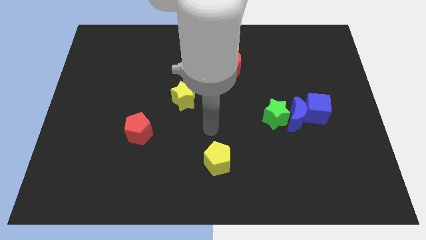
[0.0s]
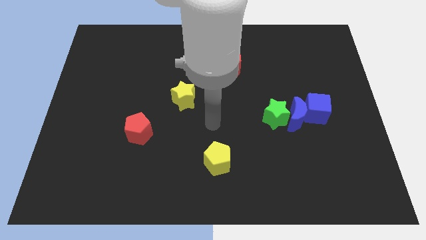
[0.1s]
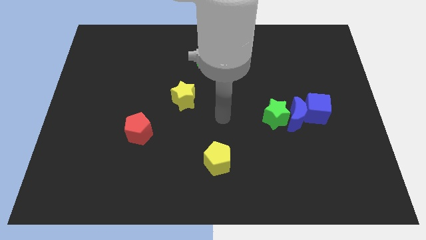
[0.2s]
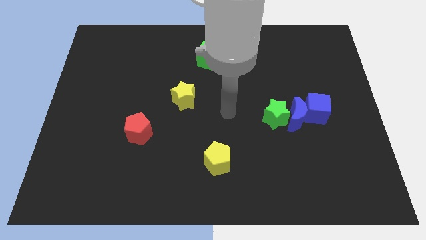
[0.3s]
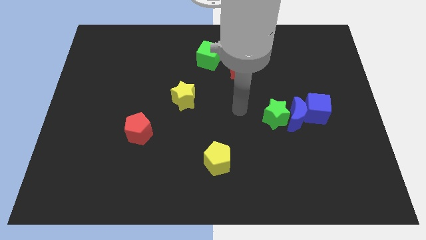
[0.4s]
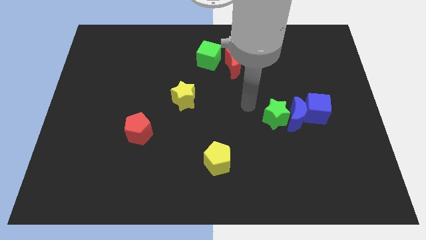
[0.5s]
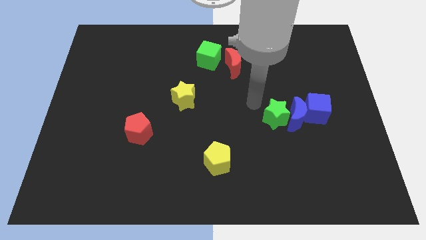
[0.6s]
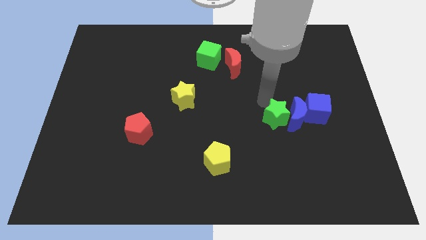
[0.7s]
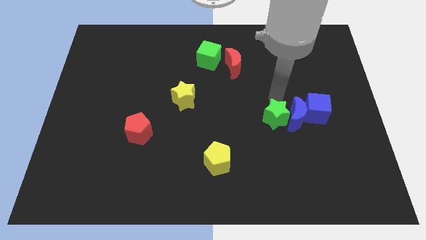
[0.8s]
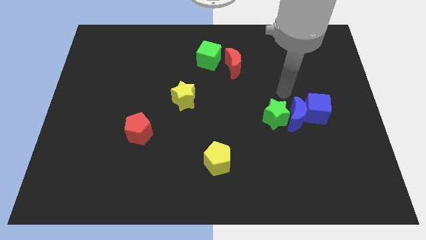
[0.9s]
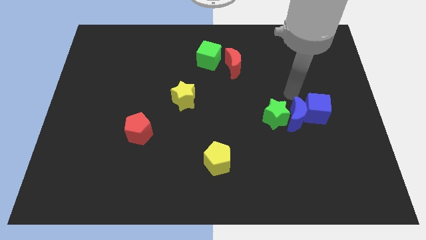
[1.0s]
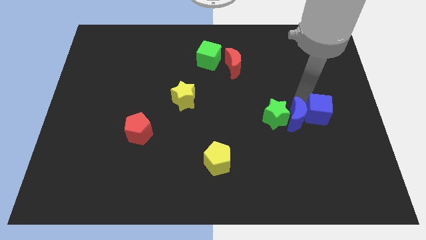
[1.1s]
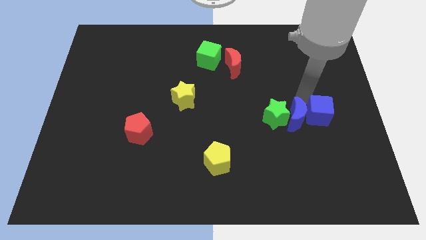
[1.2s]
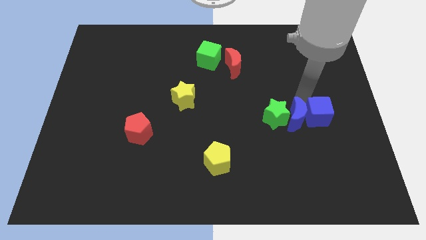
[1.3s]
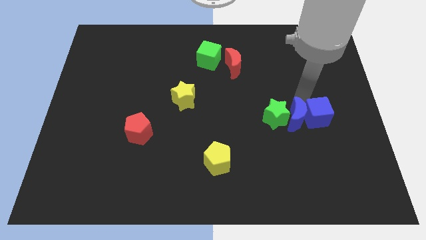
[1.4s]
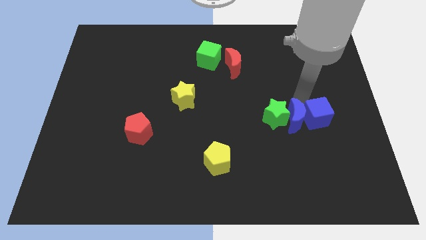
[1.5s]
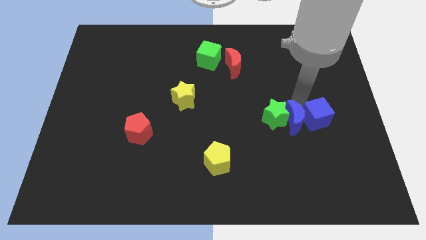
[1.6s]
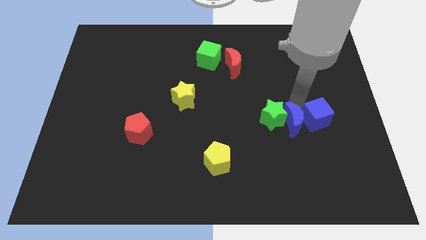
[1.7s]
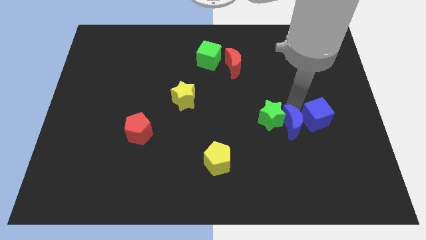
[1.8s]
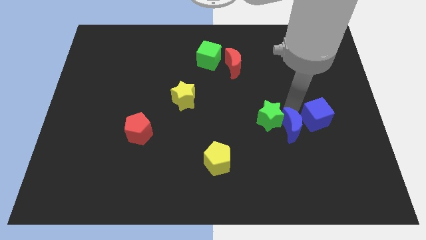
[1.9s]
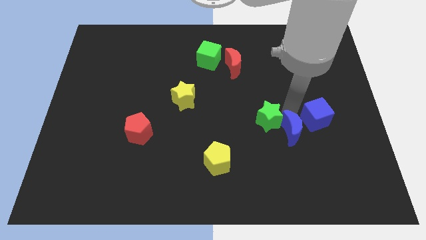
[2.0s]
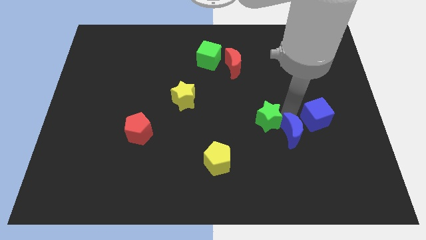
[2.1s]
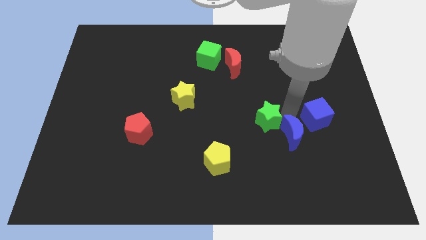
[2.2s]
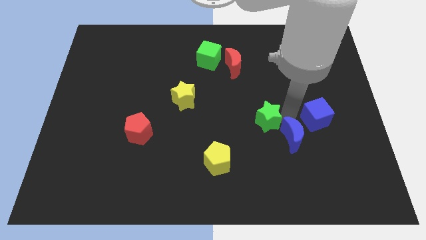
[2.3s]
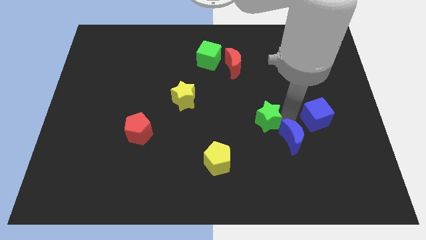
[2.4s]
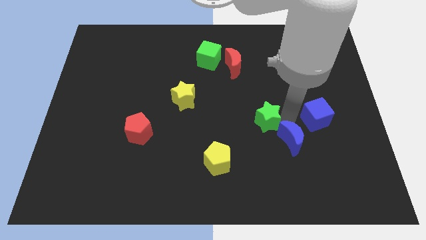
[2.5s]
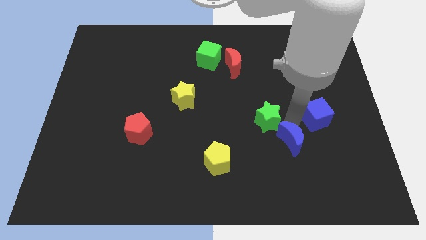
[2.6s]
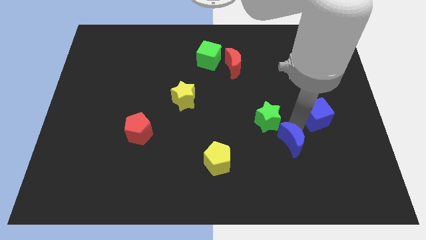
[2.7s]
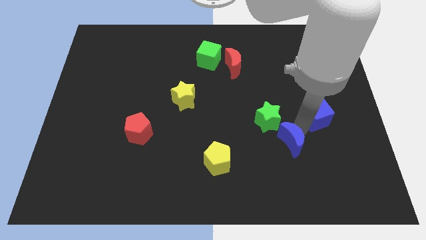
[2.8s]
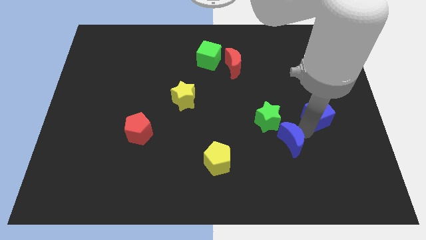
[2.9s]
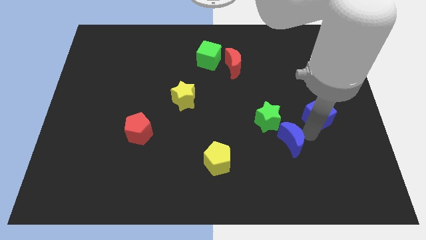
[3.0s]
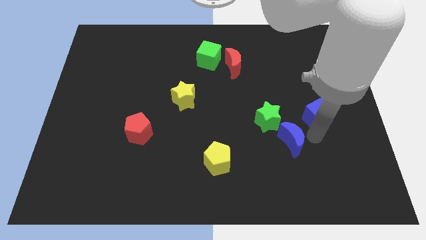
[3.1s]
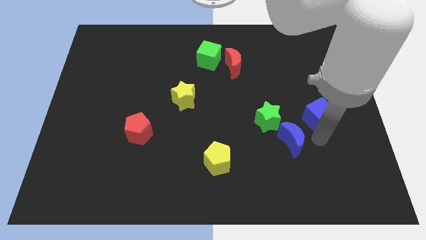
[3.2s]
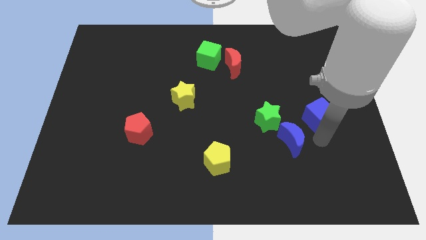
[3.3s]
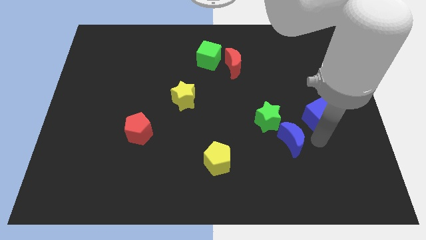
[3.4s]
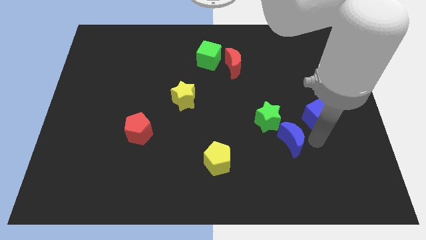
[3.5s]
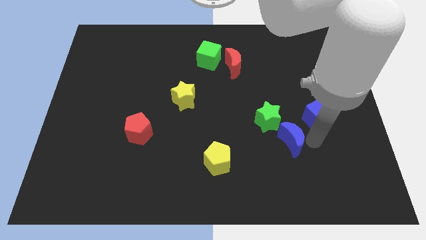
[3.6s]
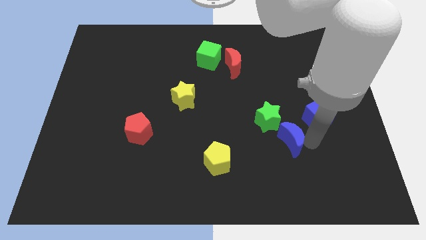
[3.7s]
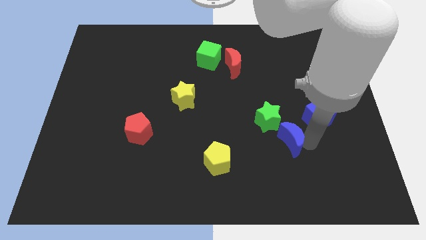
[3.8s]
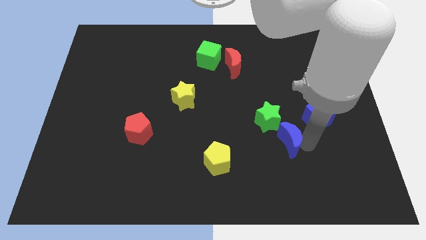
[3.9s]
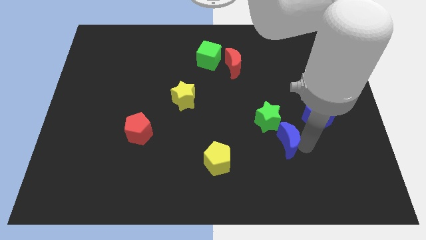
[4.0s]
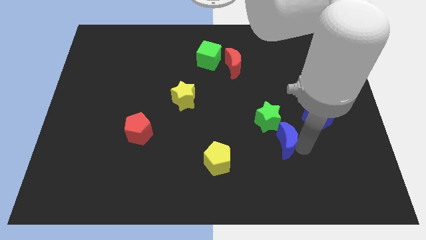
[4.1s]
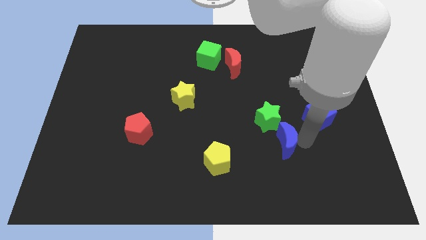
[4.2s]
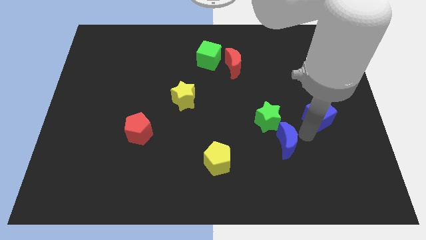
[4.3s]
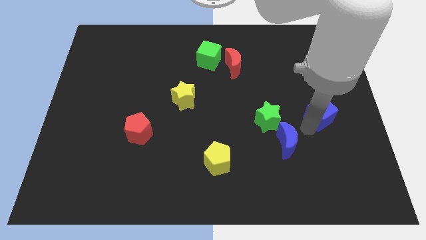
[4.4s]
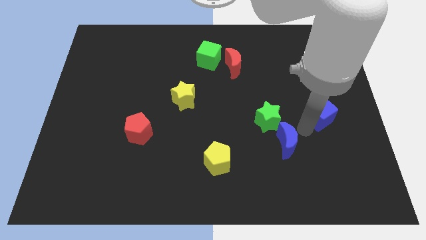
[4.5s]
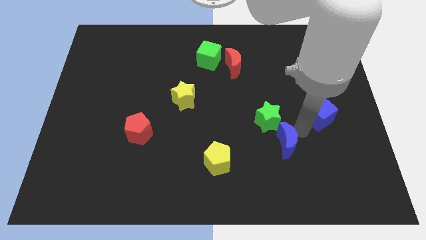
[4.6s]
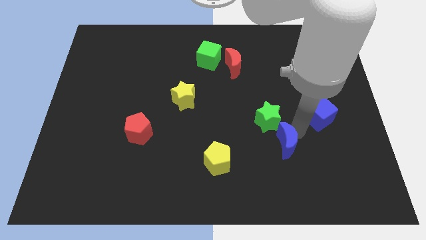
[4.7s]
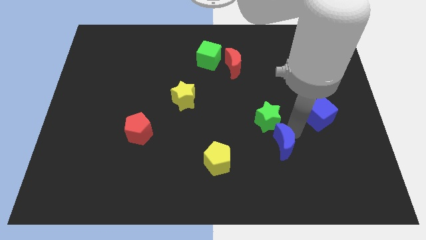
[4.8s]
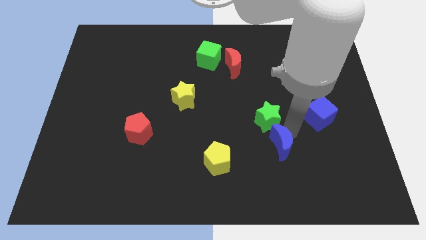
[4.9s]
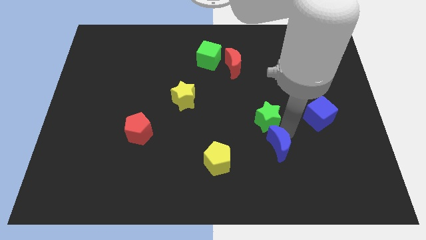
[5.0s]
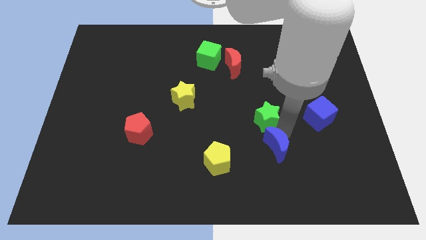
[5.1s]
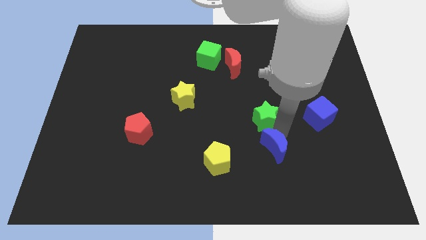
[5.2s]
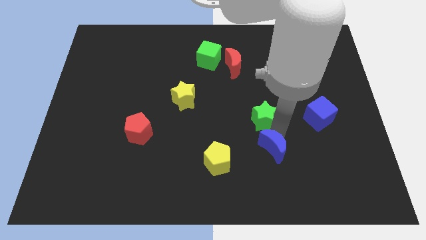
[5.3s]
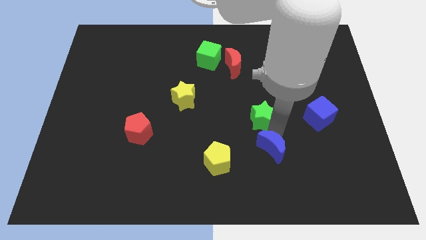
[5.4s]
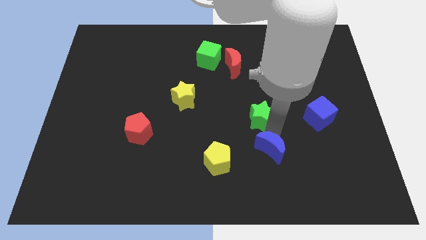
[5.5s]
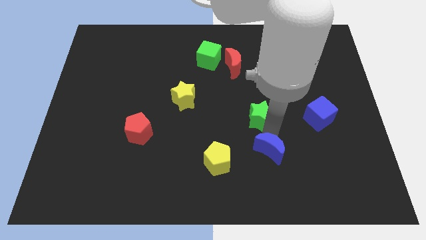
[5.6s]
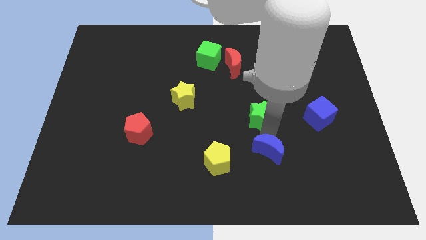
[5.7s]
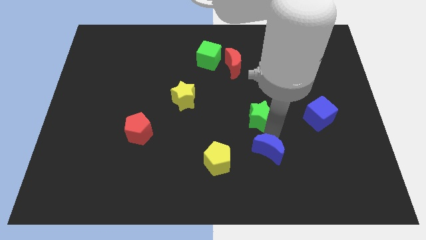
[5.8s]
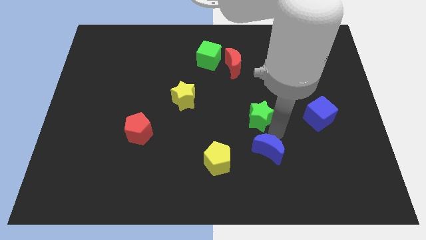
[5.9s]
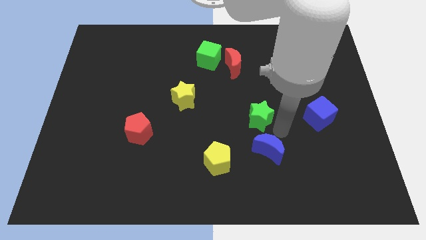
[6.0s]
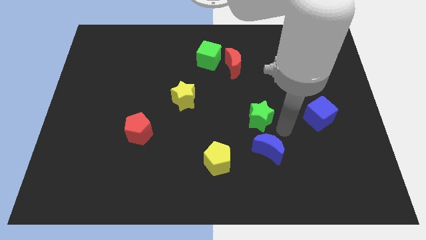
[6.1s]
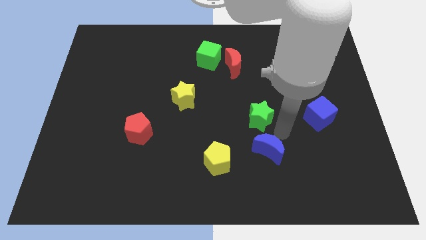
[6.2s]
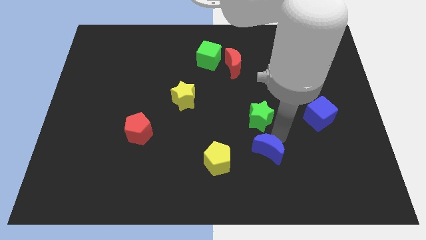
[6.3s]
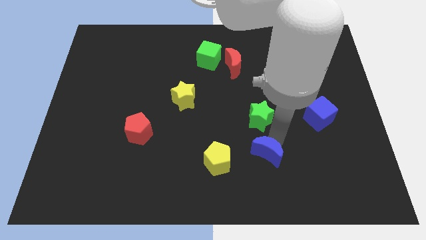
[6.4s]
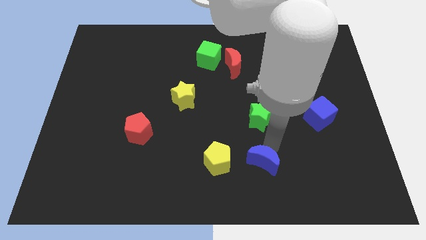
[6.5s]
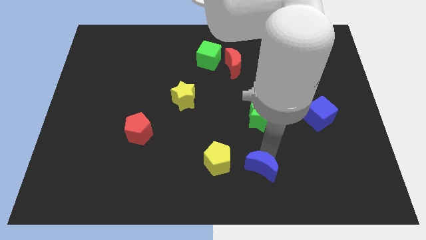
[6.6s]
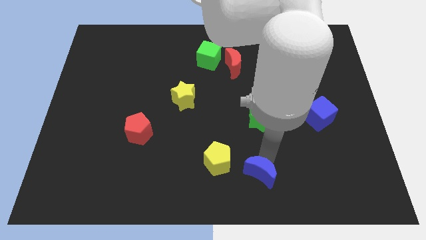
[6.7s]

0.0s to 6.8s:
slide the blue moon to the bottom side
